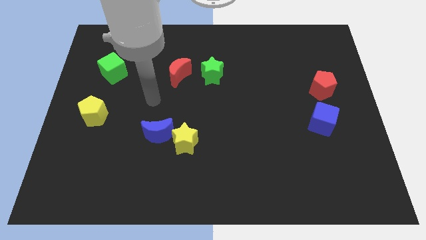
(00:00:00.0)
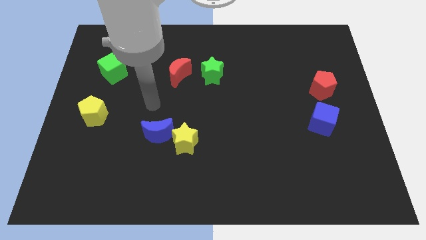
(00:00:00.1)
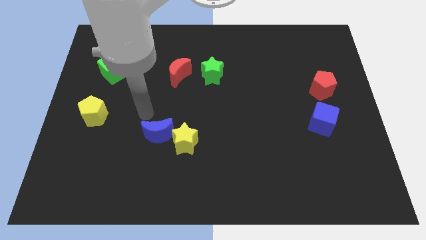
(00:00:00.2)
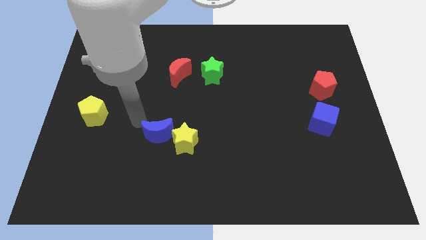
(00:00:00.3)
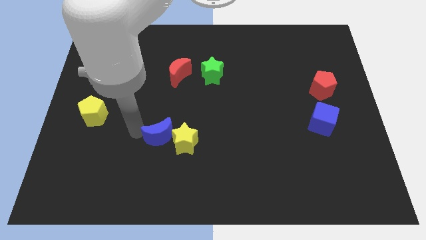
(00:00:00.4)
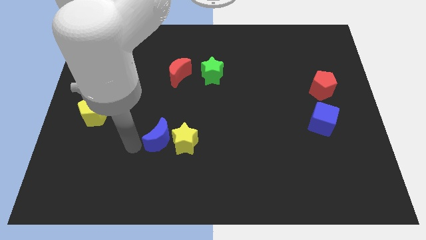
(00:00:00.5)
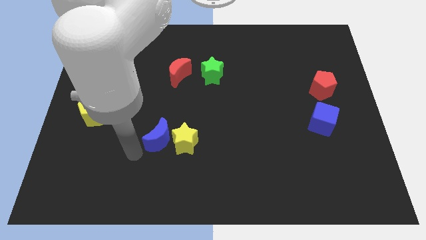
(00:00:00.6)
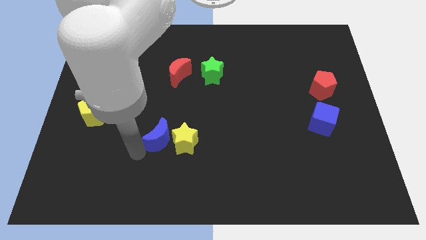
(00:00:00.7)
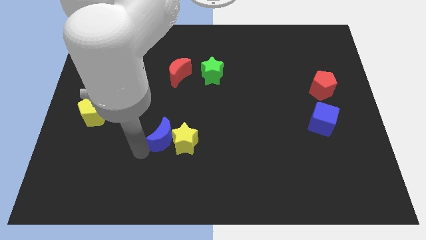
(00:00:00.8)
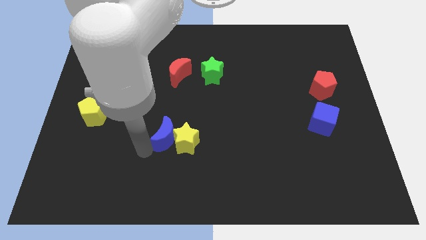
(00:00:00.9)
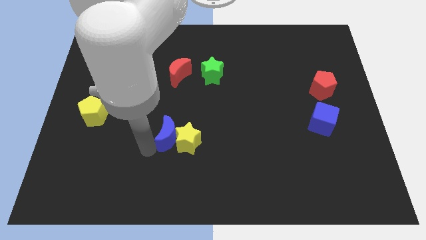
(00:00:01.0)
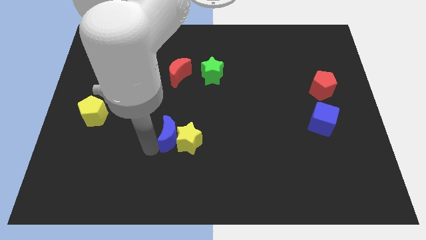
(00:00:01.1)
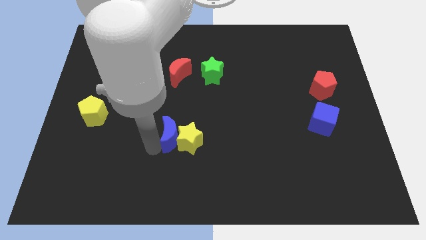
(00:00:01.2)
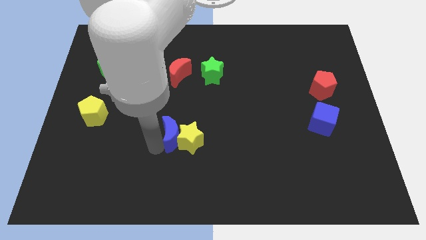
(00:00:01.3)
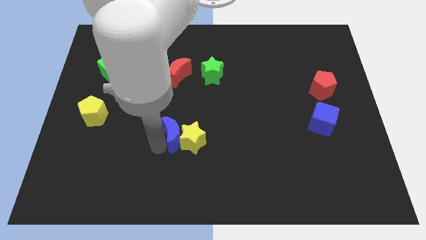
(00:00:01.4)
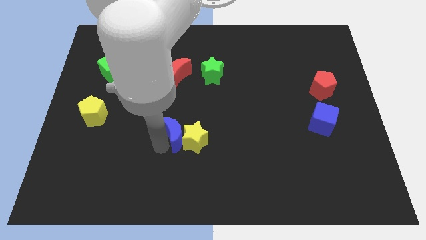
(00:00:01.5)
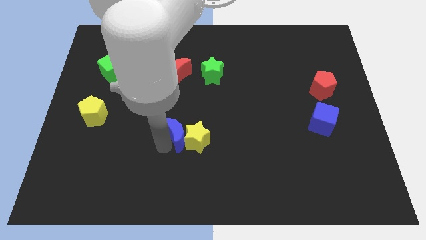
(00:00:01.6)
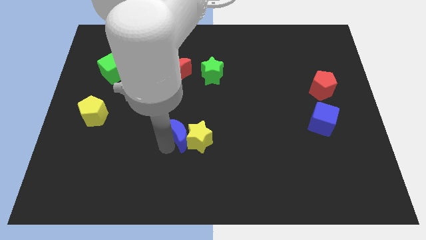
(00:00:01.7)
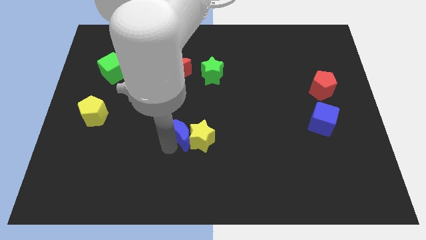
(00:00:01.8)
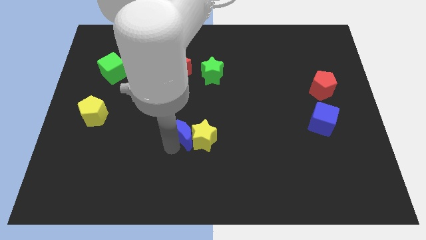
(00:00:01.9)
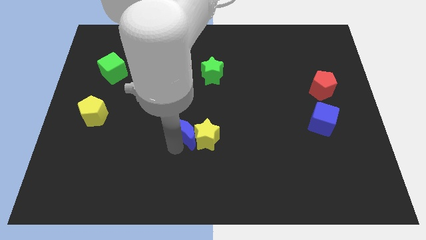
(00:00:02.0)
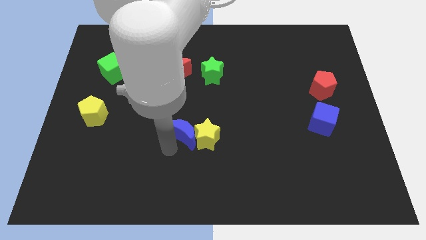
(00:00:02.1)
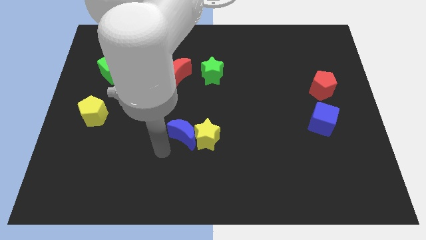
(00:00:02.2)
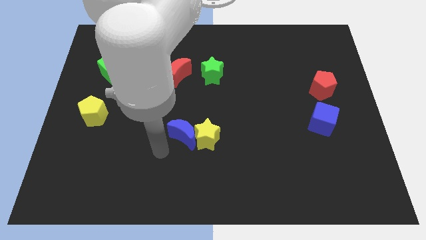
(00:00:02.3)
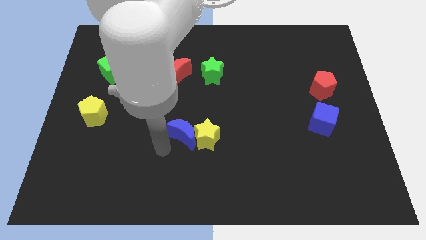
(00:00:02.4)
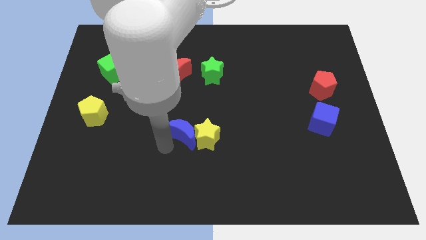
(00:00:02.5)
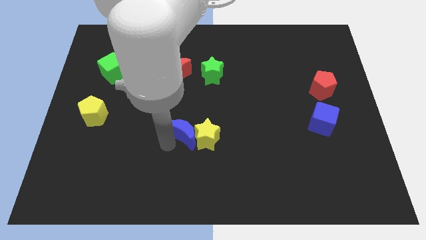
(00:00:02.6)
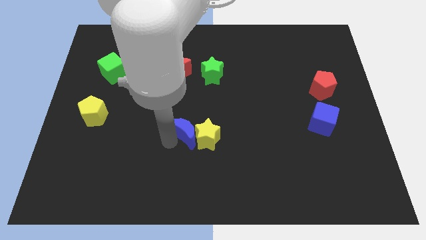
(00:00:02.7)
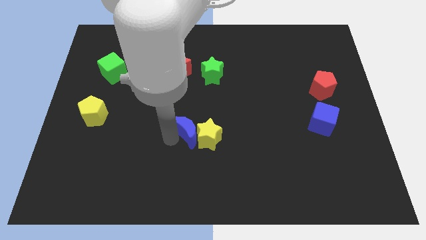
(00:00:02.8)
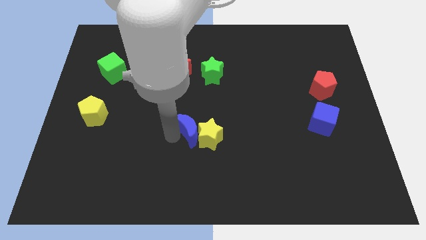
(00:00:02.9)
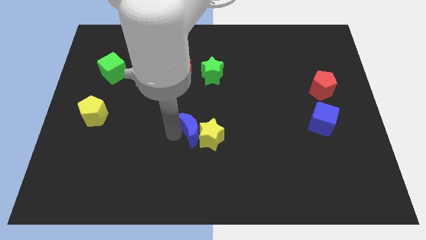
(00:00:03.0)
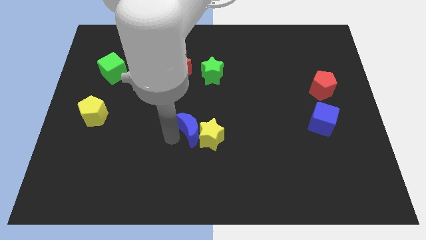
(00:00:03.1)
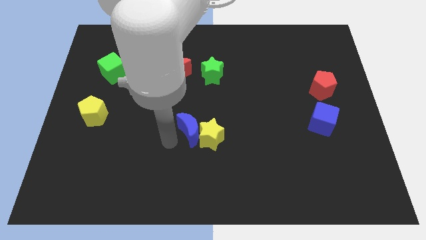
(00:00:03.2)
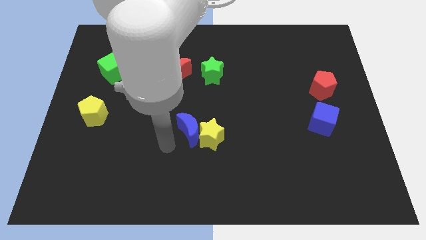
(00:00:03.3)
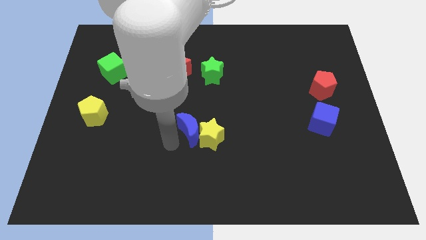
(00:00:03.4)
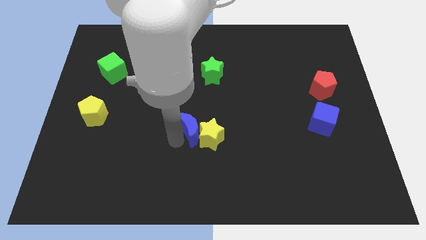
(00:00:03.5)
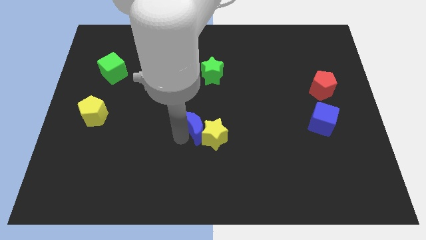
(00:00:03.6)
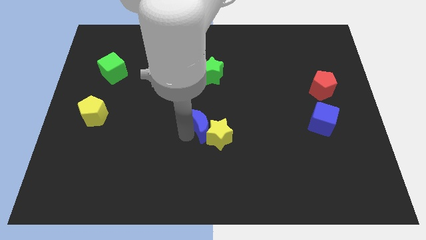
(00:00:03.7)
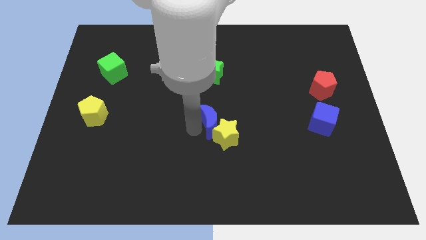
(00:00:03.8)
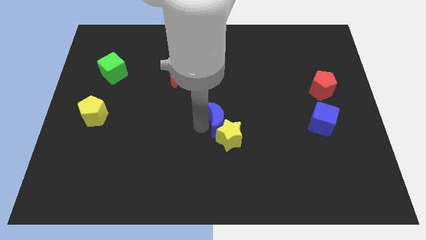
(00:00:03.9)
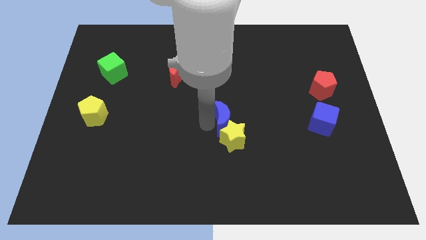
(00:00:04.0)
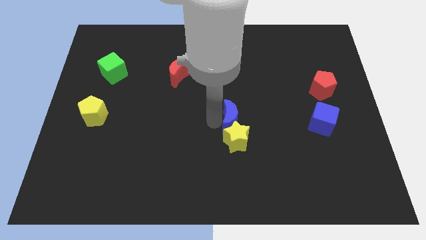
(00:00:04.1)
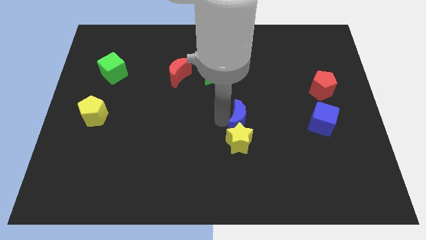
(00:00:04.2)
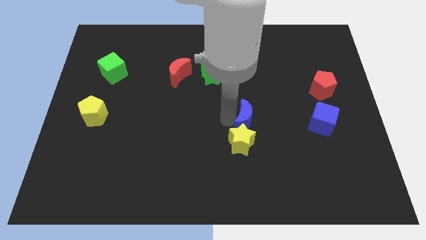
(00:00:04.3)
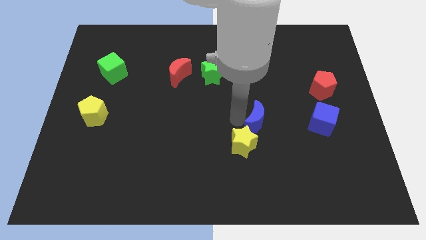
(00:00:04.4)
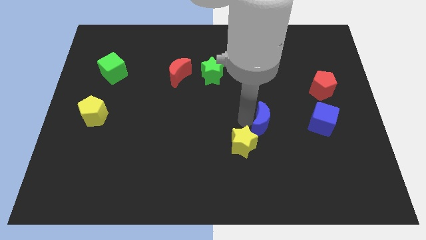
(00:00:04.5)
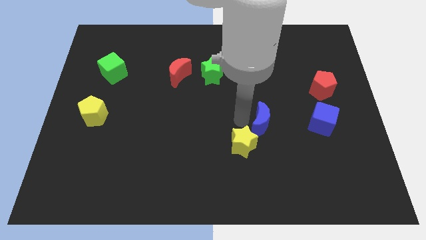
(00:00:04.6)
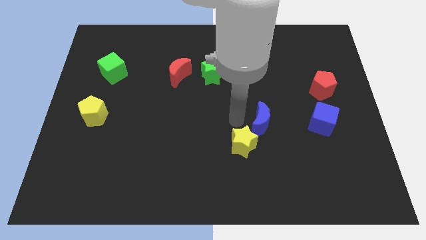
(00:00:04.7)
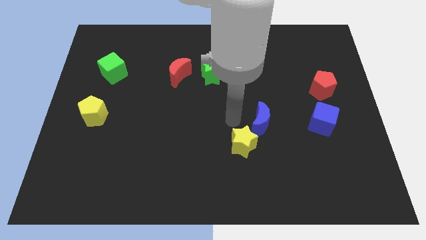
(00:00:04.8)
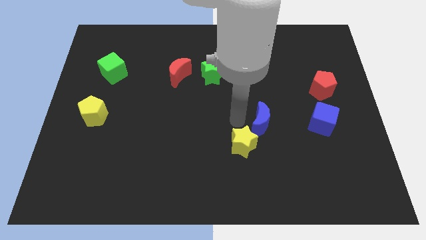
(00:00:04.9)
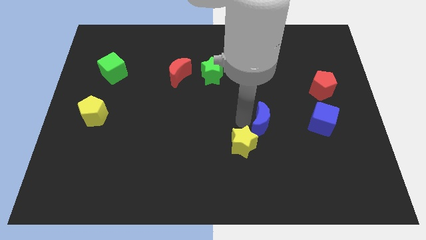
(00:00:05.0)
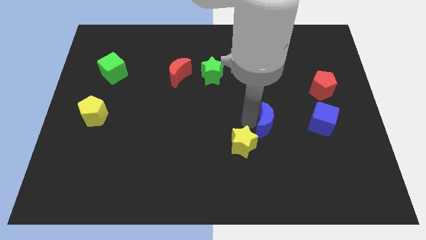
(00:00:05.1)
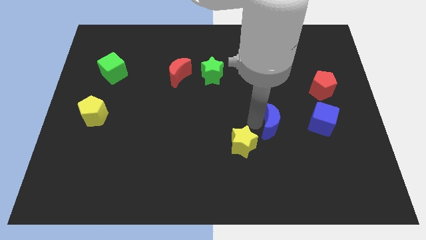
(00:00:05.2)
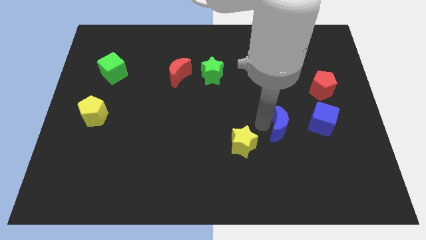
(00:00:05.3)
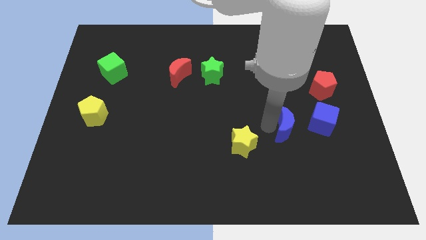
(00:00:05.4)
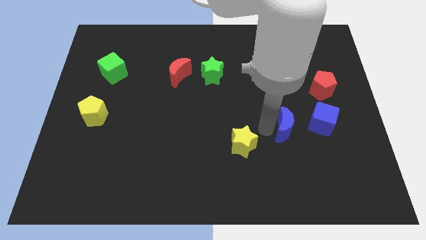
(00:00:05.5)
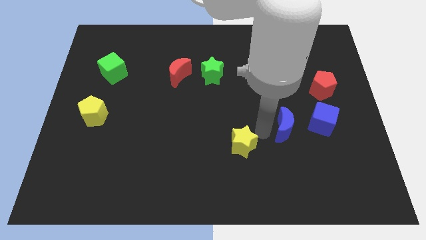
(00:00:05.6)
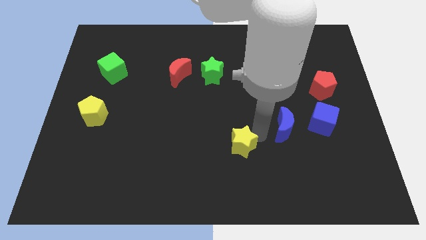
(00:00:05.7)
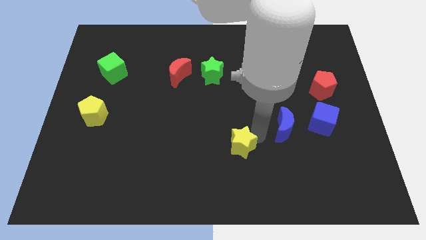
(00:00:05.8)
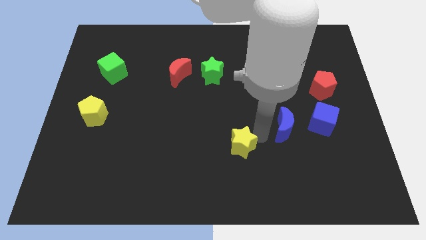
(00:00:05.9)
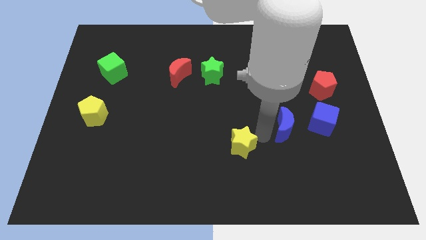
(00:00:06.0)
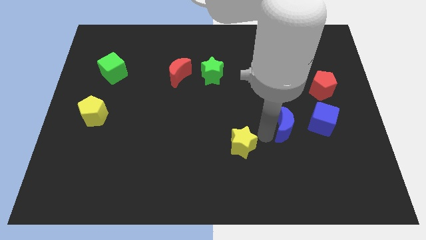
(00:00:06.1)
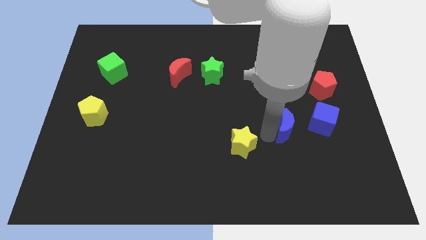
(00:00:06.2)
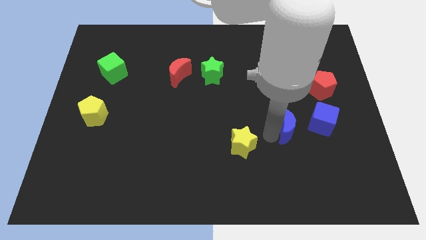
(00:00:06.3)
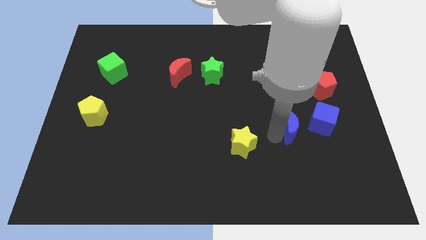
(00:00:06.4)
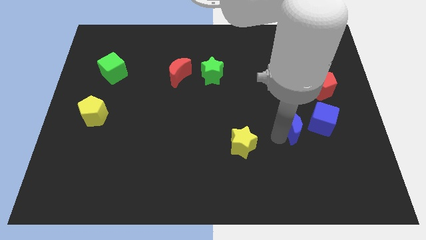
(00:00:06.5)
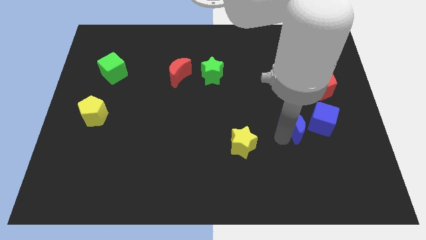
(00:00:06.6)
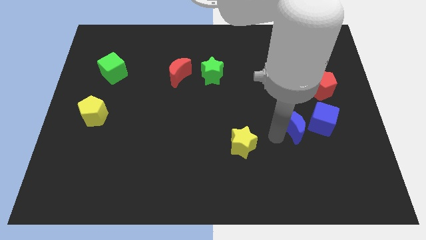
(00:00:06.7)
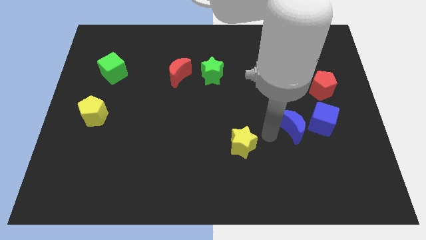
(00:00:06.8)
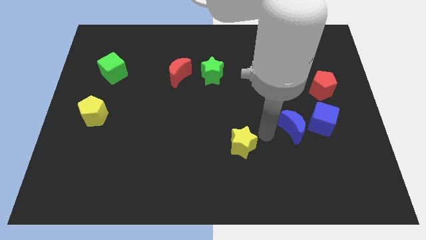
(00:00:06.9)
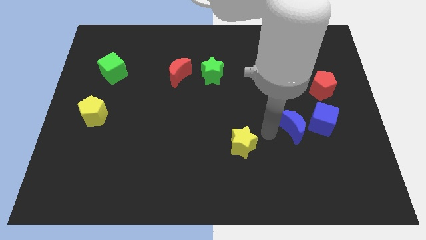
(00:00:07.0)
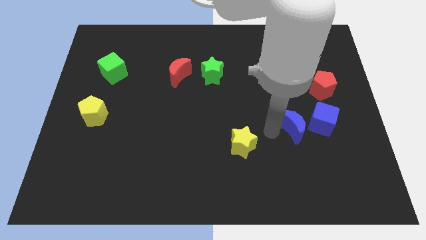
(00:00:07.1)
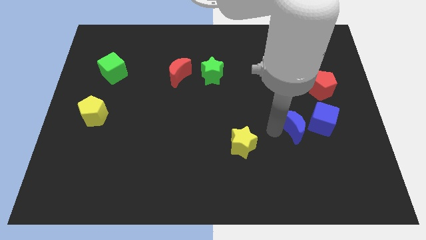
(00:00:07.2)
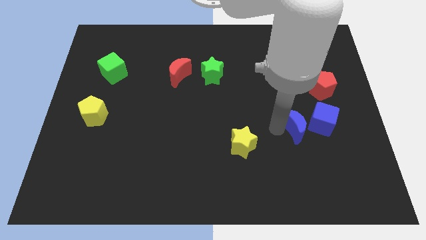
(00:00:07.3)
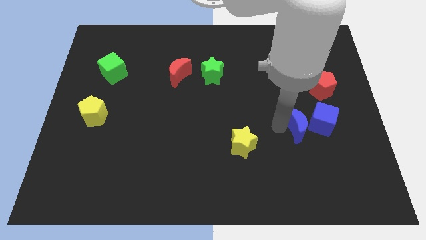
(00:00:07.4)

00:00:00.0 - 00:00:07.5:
move the blue moon to the blue cube
